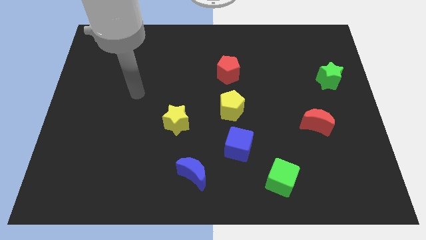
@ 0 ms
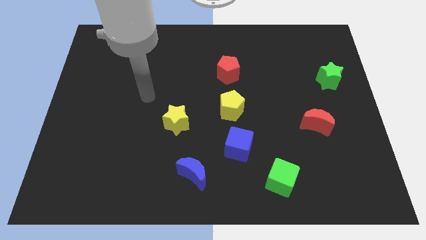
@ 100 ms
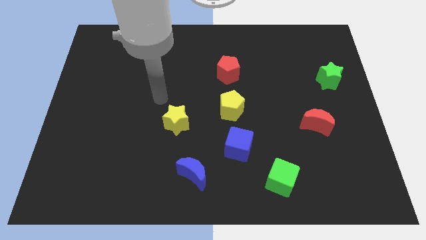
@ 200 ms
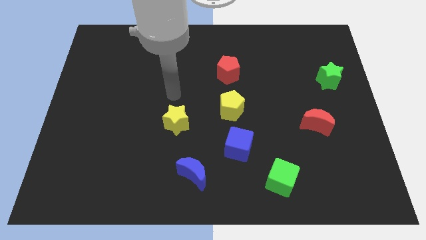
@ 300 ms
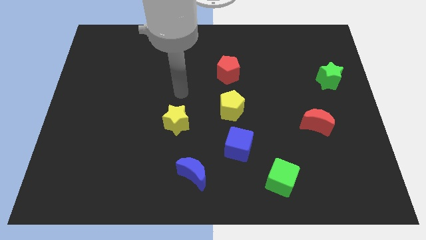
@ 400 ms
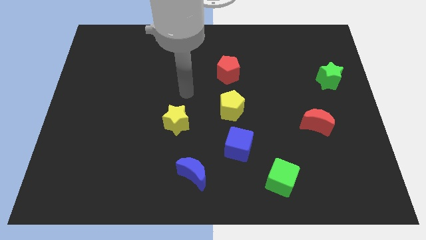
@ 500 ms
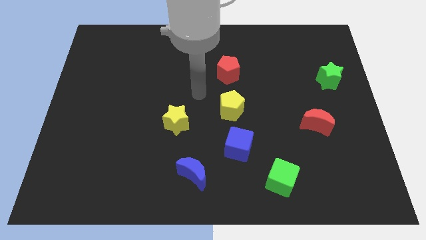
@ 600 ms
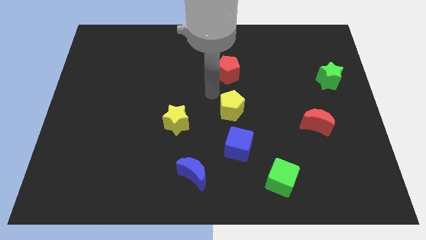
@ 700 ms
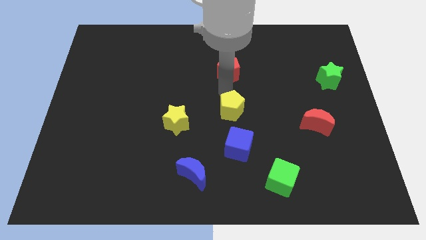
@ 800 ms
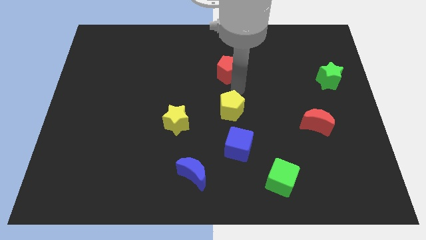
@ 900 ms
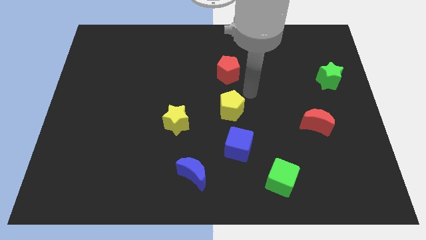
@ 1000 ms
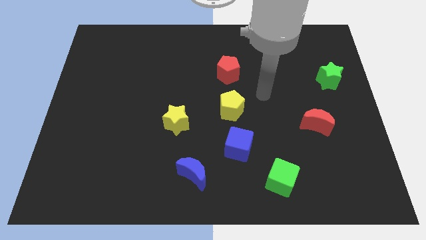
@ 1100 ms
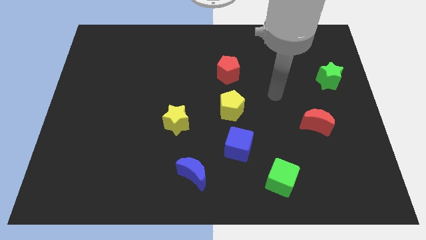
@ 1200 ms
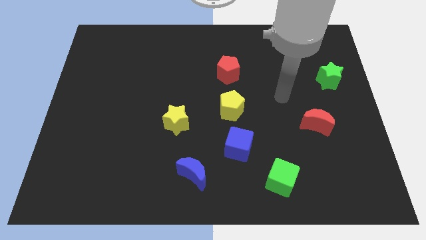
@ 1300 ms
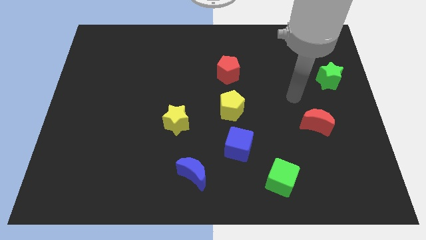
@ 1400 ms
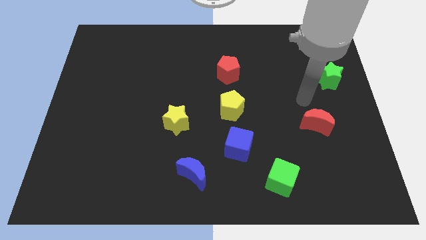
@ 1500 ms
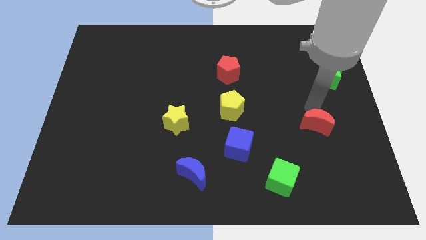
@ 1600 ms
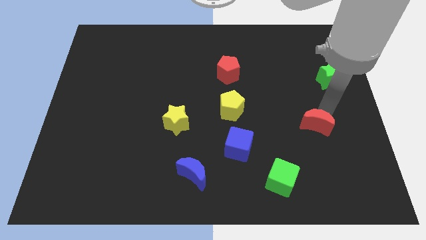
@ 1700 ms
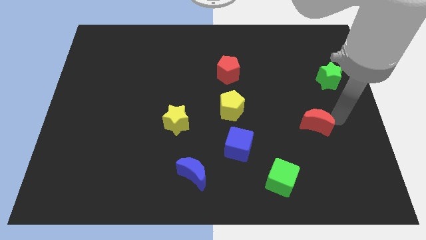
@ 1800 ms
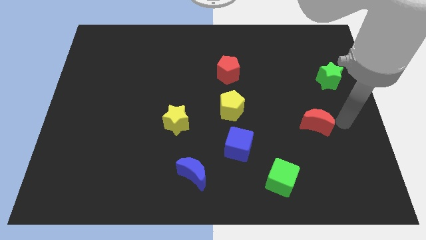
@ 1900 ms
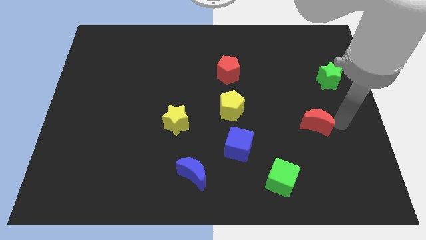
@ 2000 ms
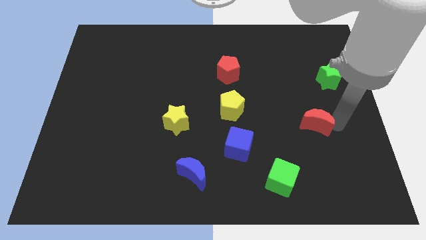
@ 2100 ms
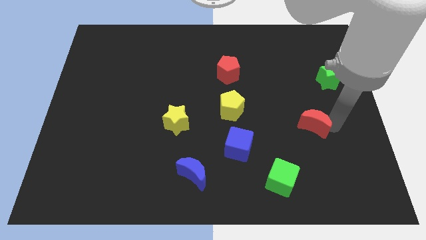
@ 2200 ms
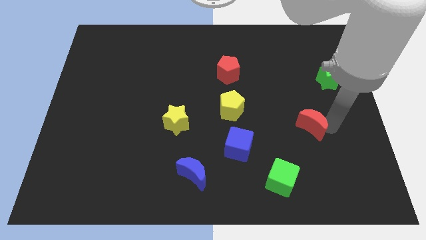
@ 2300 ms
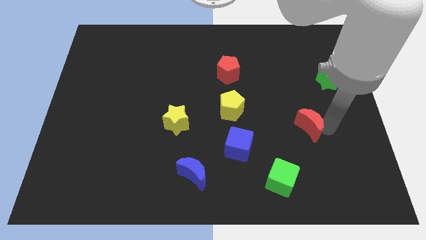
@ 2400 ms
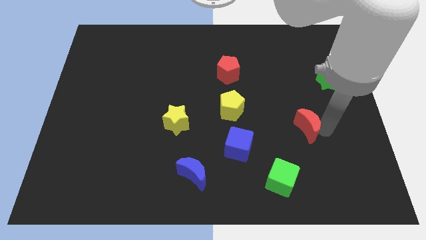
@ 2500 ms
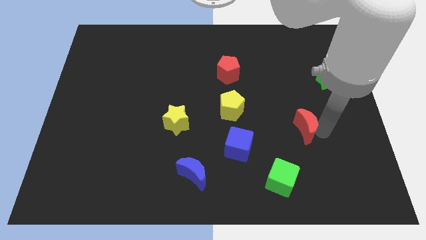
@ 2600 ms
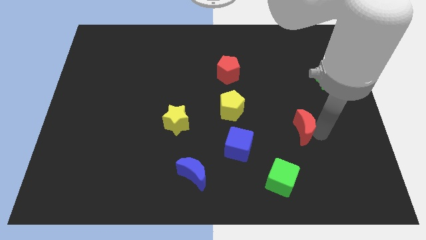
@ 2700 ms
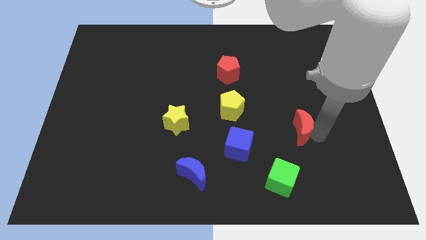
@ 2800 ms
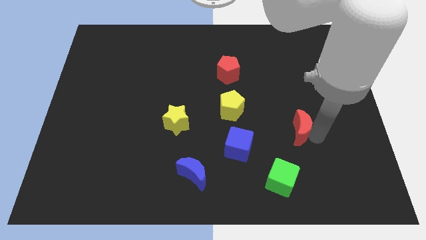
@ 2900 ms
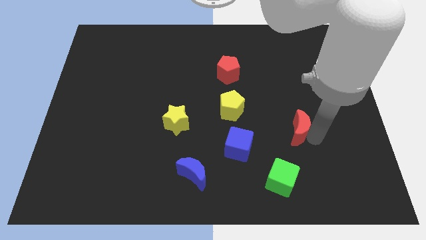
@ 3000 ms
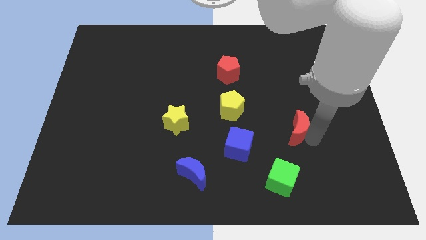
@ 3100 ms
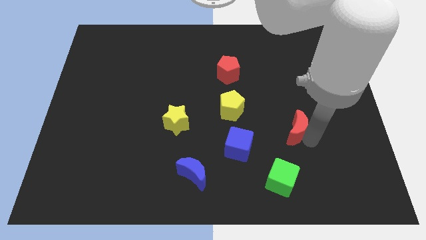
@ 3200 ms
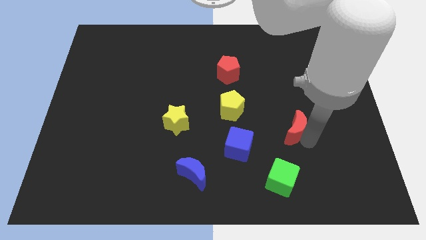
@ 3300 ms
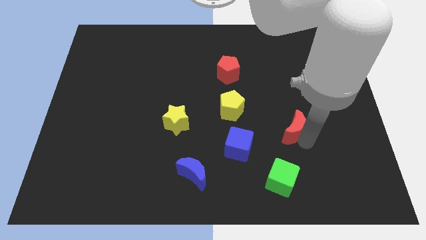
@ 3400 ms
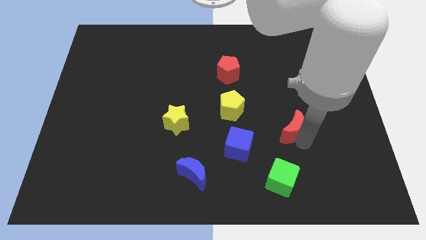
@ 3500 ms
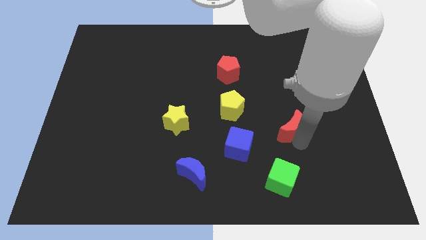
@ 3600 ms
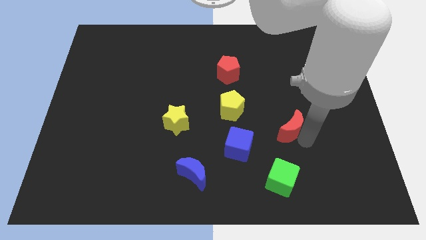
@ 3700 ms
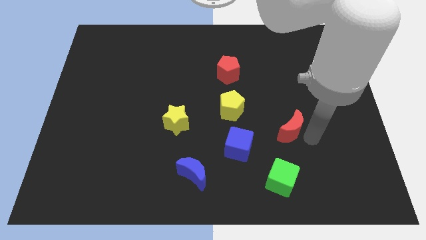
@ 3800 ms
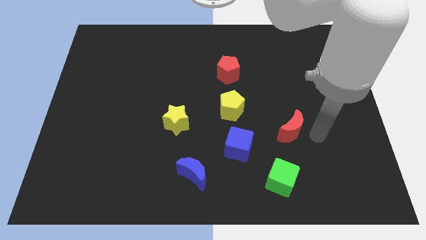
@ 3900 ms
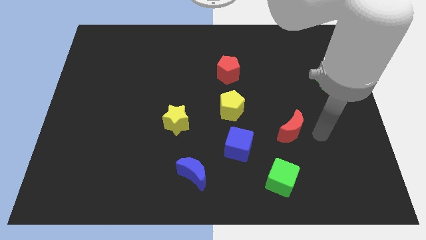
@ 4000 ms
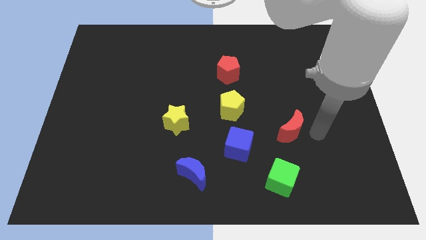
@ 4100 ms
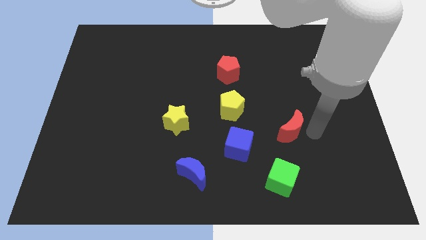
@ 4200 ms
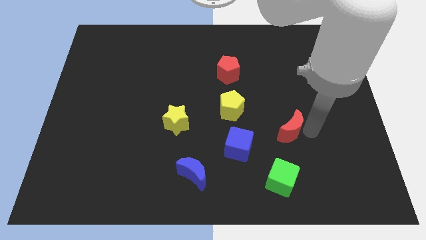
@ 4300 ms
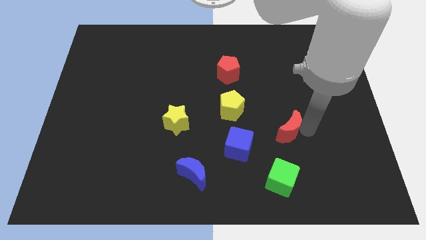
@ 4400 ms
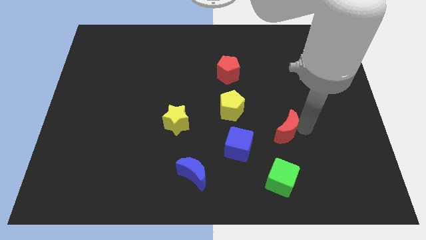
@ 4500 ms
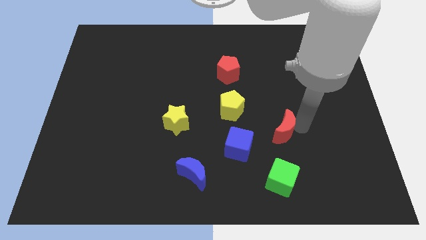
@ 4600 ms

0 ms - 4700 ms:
push the red moon to the top right of the blue cube

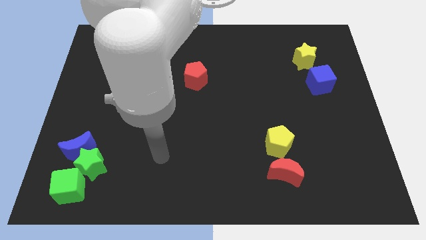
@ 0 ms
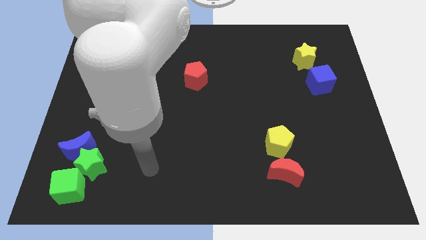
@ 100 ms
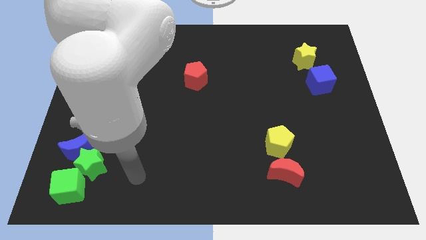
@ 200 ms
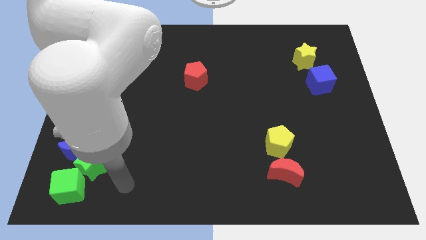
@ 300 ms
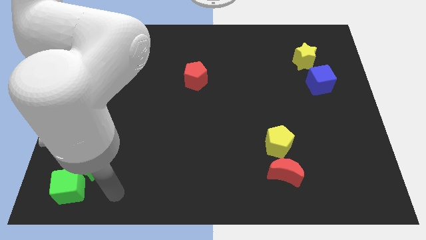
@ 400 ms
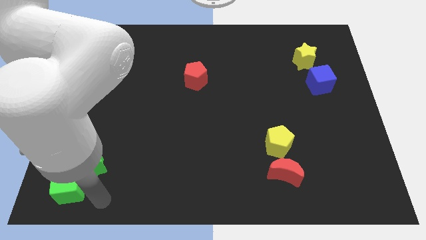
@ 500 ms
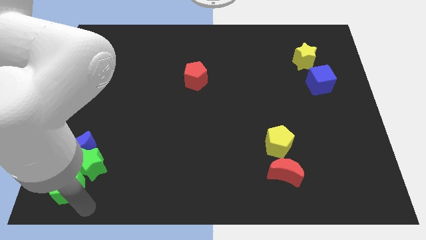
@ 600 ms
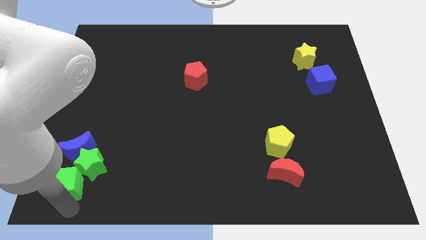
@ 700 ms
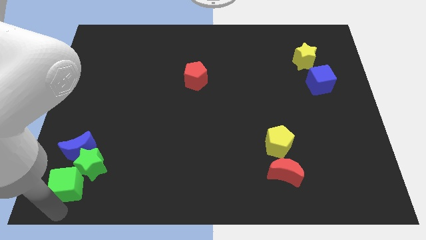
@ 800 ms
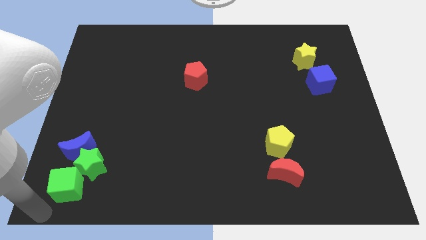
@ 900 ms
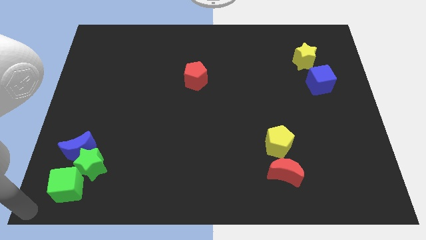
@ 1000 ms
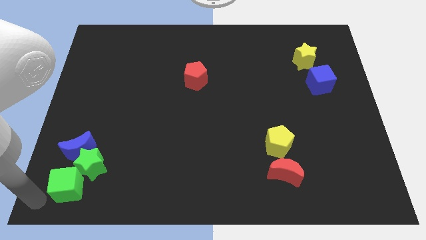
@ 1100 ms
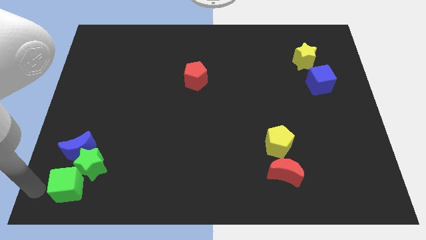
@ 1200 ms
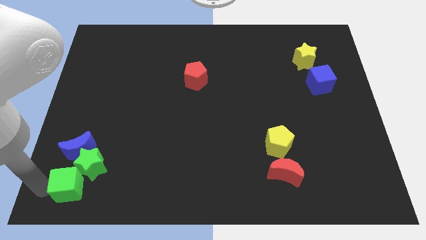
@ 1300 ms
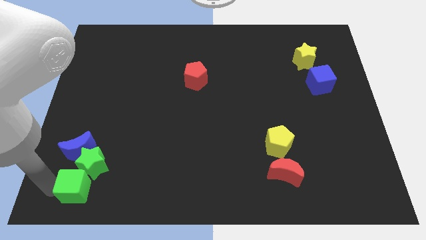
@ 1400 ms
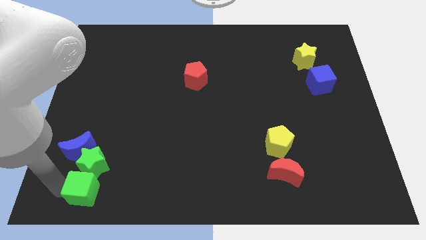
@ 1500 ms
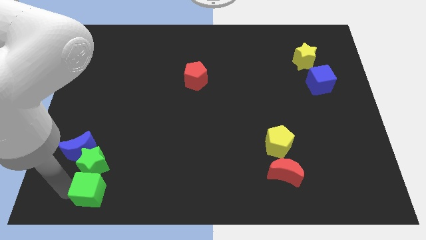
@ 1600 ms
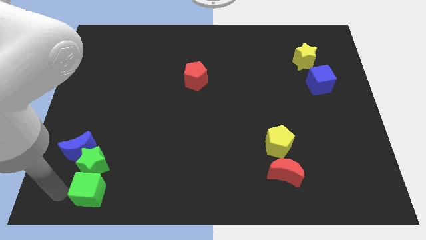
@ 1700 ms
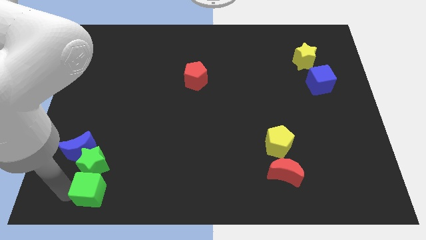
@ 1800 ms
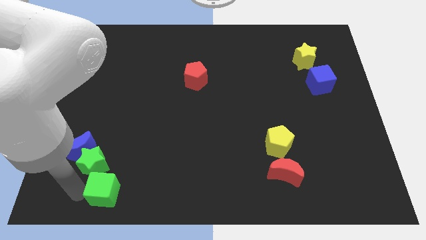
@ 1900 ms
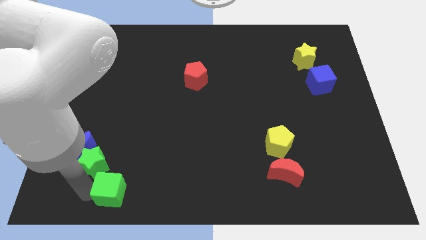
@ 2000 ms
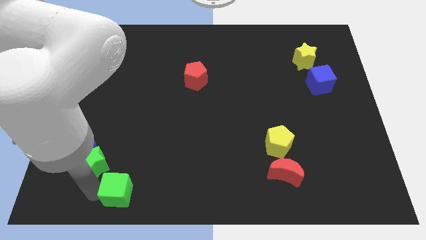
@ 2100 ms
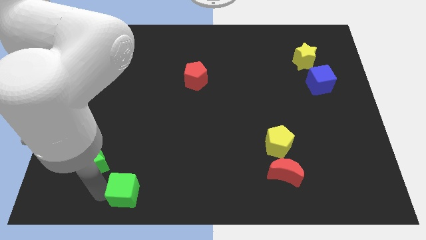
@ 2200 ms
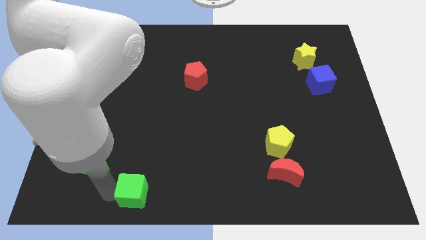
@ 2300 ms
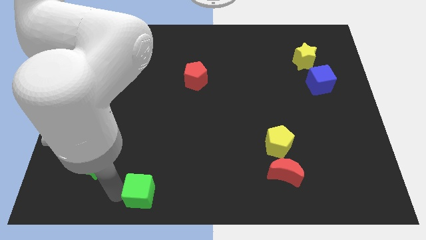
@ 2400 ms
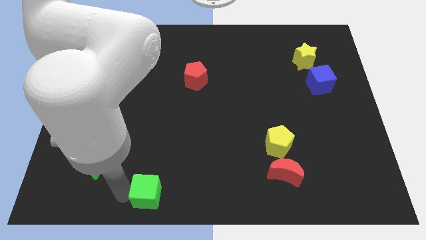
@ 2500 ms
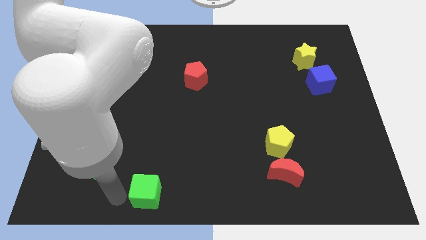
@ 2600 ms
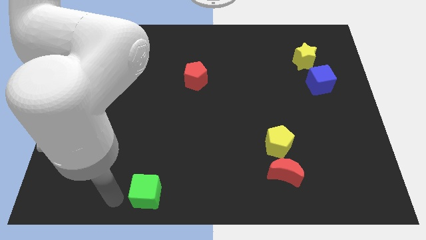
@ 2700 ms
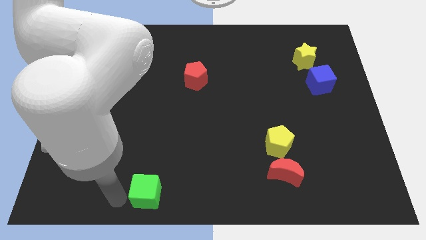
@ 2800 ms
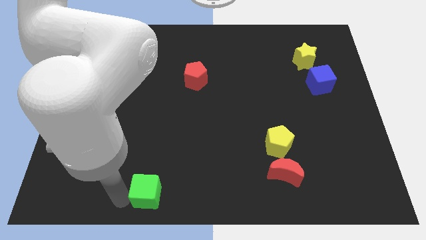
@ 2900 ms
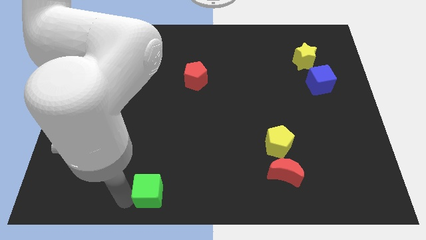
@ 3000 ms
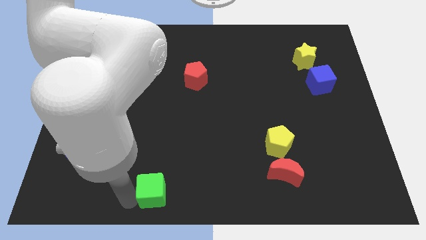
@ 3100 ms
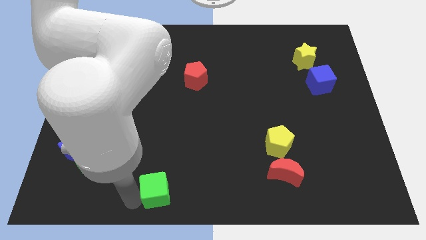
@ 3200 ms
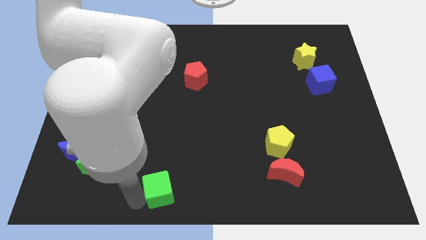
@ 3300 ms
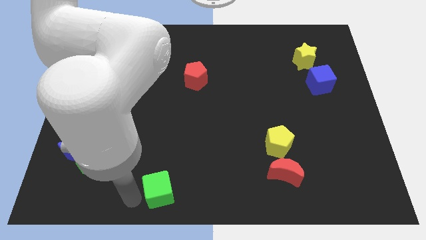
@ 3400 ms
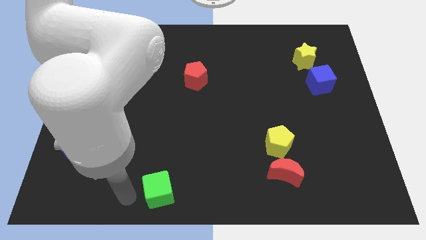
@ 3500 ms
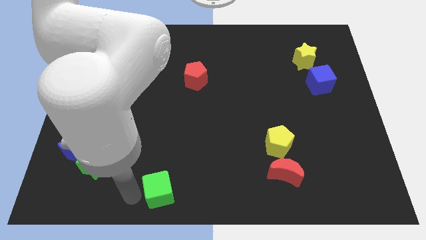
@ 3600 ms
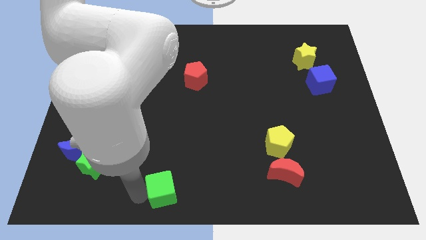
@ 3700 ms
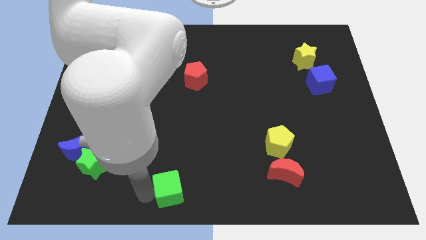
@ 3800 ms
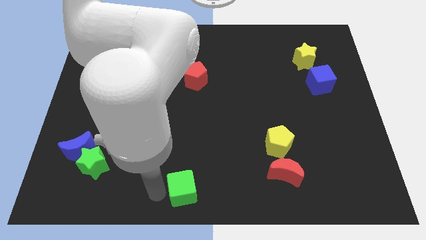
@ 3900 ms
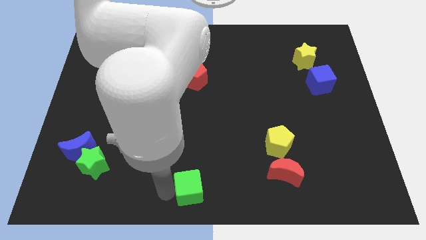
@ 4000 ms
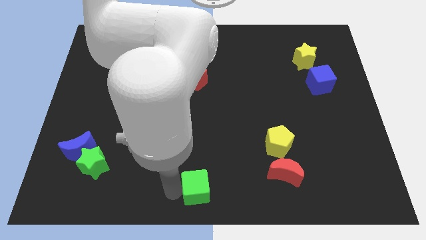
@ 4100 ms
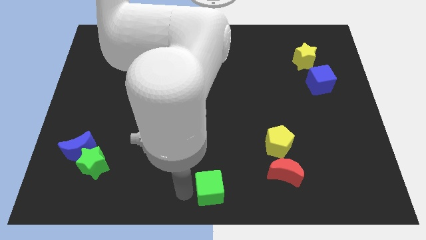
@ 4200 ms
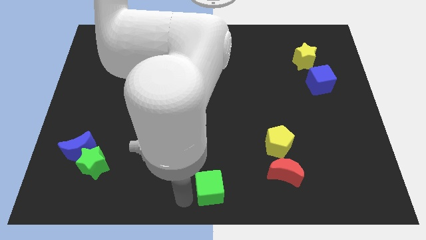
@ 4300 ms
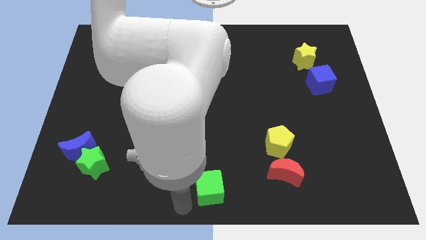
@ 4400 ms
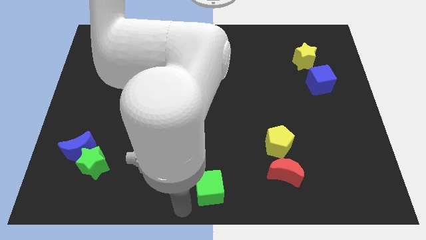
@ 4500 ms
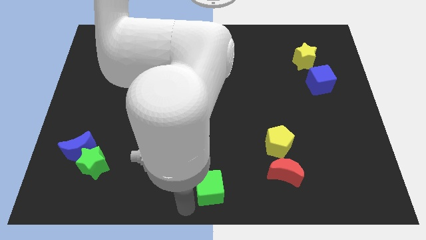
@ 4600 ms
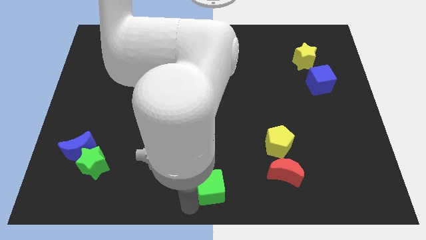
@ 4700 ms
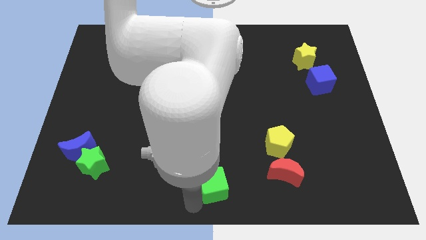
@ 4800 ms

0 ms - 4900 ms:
push the green cube to the left of the red moon
